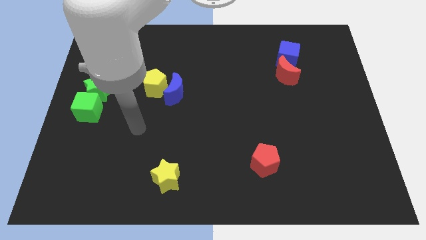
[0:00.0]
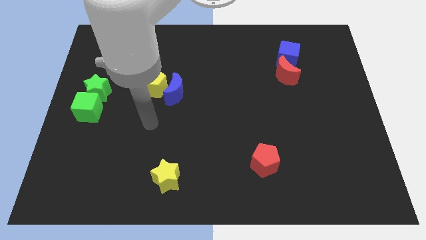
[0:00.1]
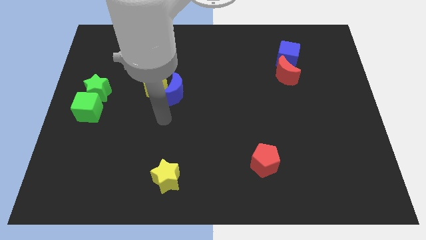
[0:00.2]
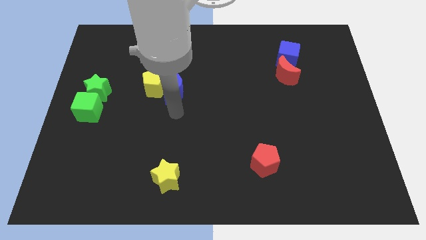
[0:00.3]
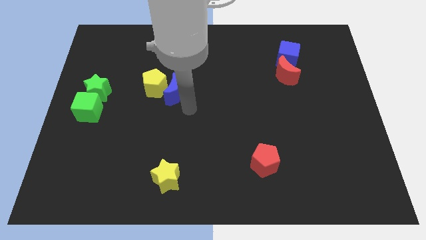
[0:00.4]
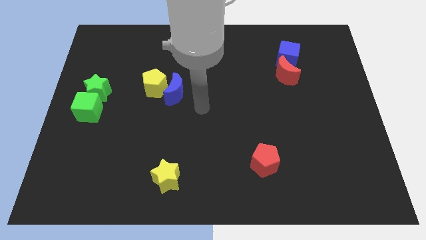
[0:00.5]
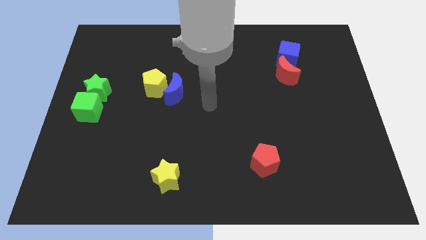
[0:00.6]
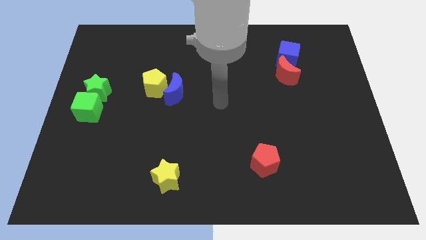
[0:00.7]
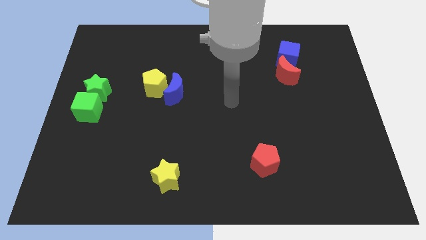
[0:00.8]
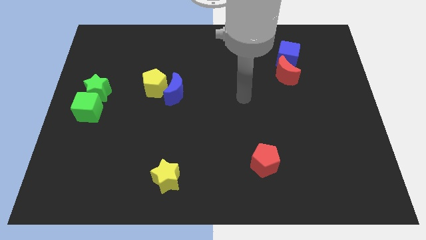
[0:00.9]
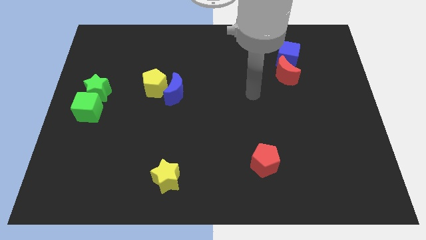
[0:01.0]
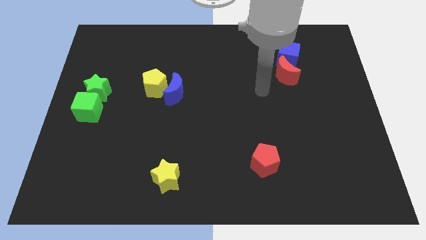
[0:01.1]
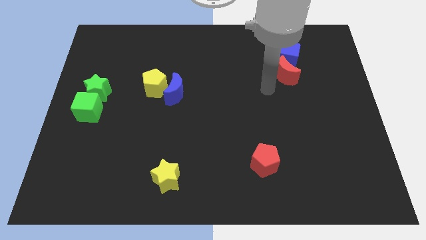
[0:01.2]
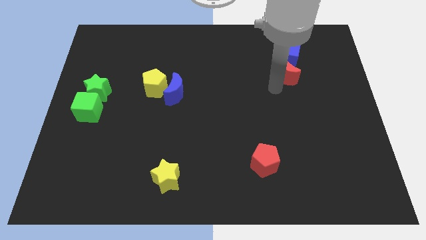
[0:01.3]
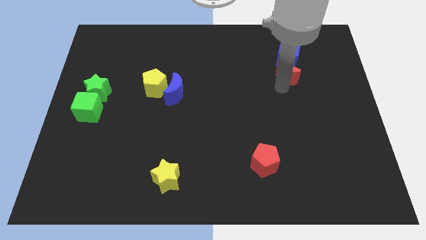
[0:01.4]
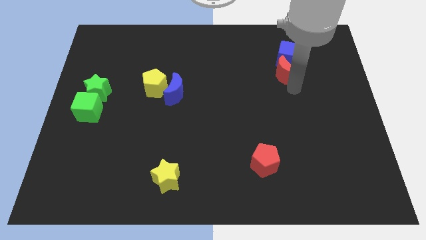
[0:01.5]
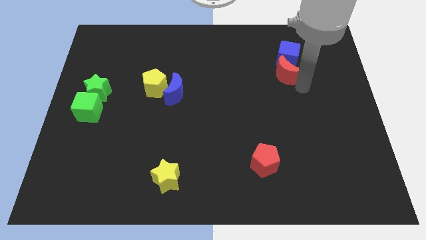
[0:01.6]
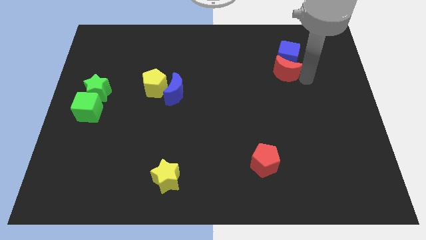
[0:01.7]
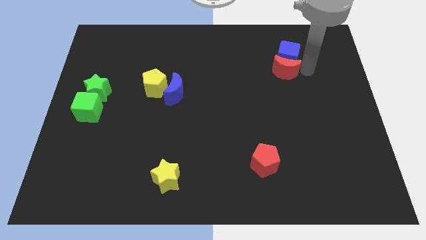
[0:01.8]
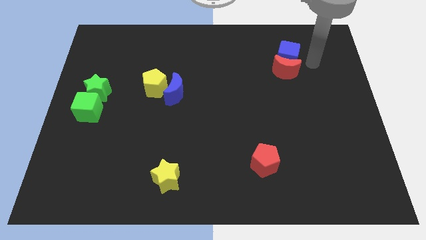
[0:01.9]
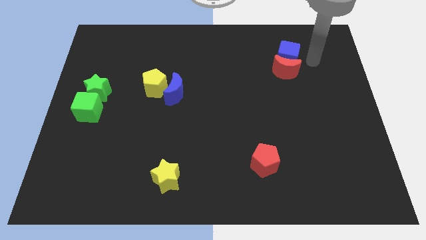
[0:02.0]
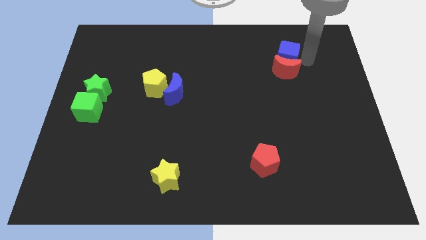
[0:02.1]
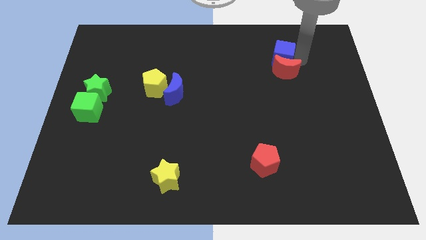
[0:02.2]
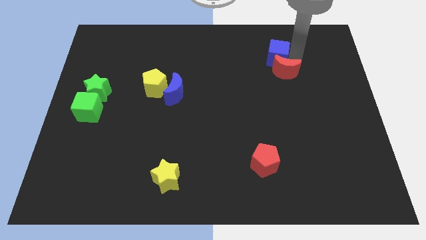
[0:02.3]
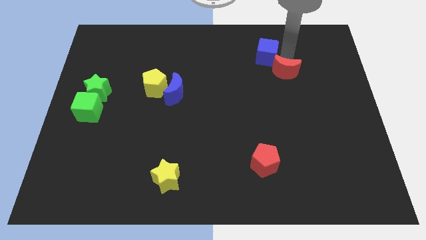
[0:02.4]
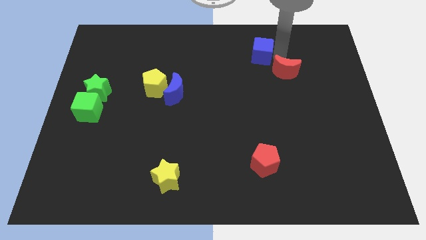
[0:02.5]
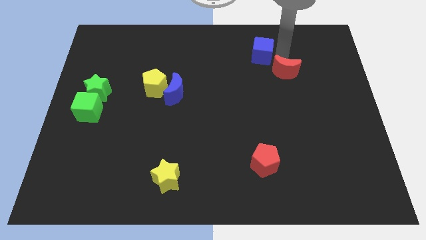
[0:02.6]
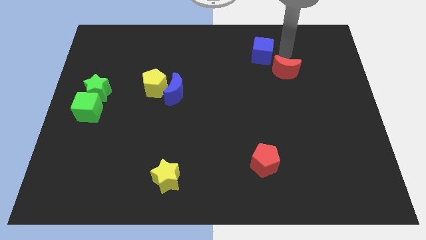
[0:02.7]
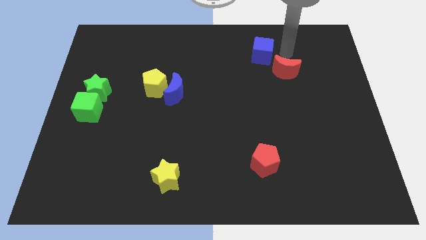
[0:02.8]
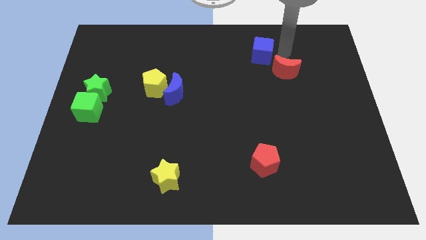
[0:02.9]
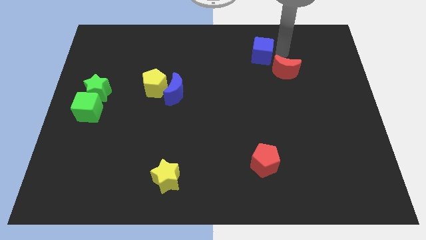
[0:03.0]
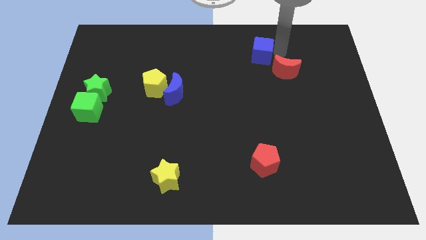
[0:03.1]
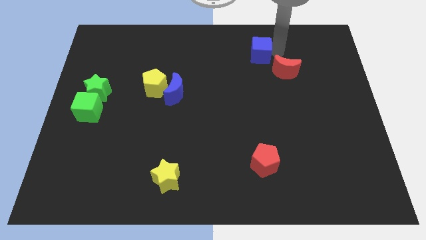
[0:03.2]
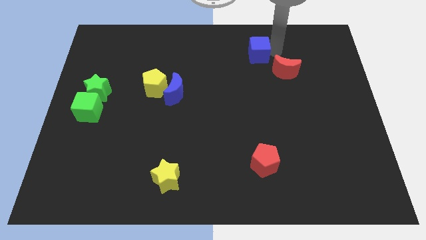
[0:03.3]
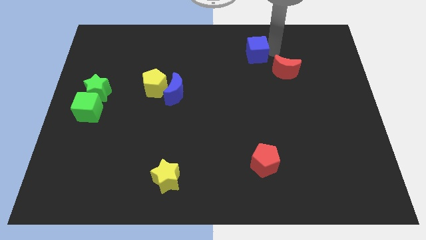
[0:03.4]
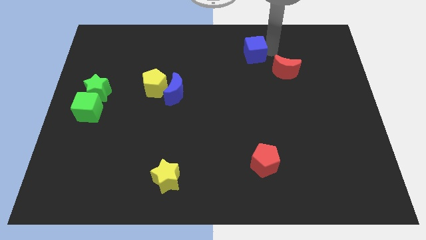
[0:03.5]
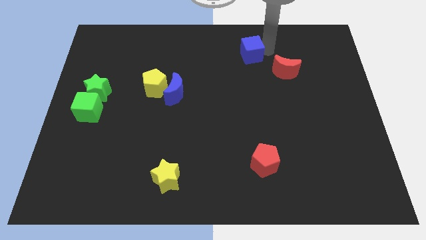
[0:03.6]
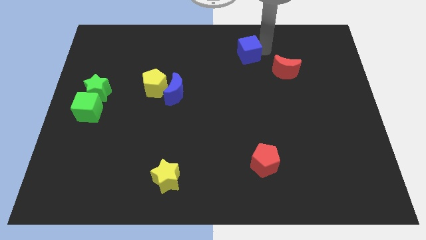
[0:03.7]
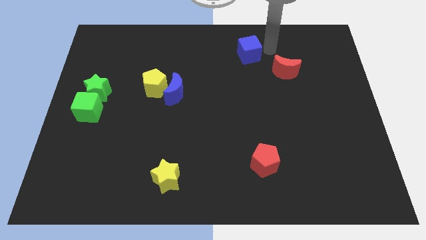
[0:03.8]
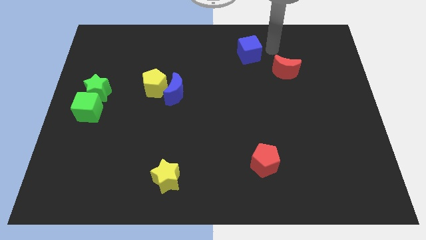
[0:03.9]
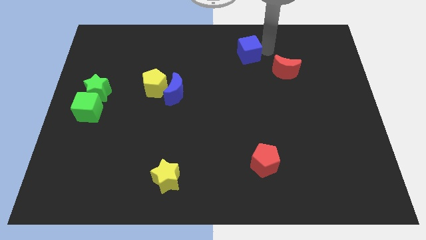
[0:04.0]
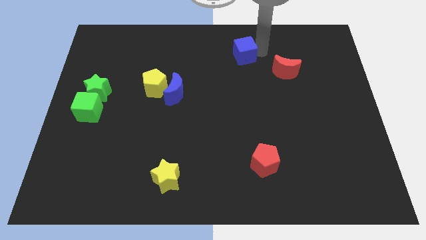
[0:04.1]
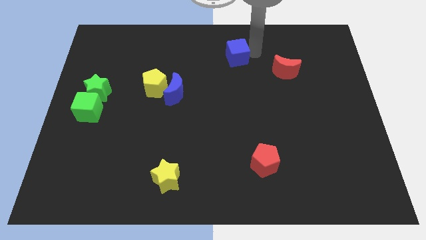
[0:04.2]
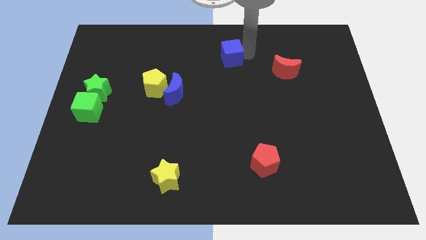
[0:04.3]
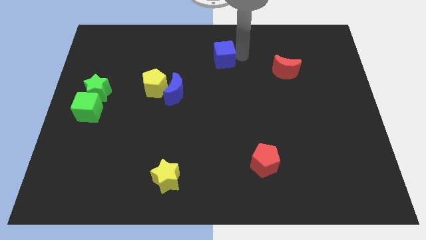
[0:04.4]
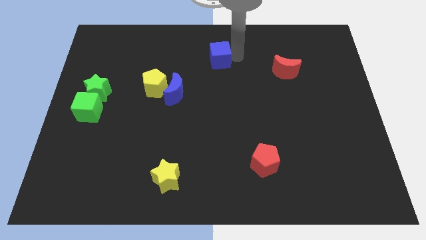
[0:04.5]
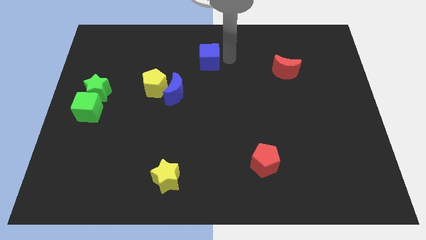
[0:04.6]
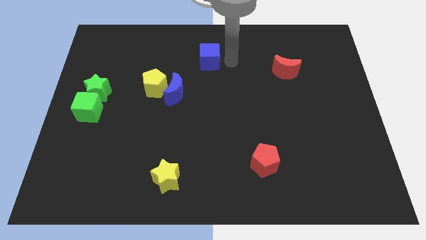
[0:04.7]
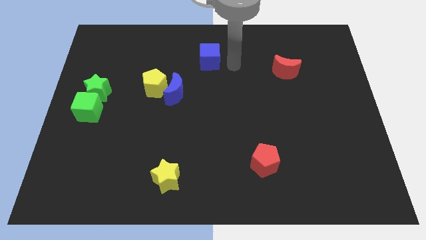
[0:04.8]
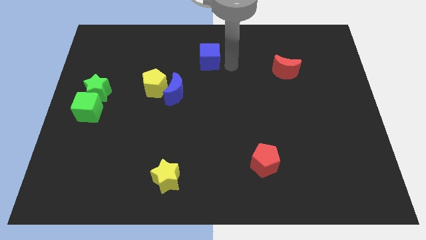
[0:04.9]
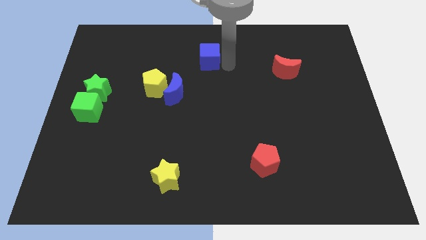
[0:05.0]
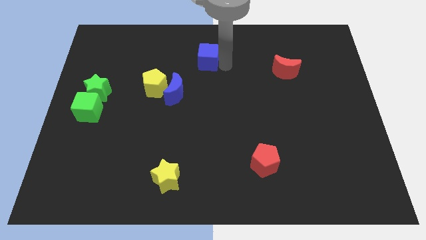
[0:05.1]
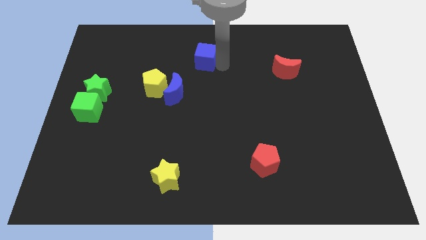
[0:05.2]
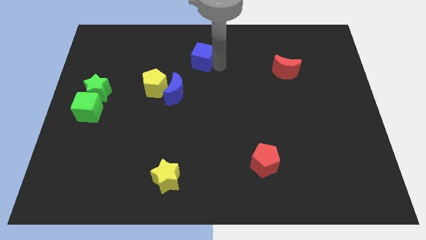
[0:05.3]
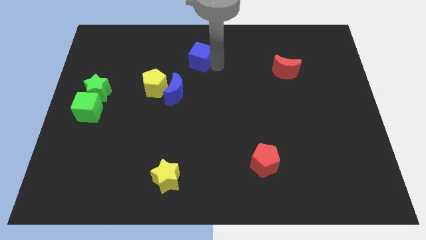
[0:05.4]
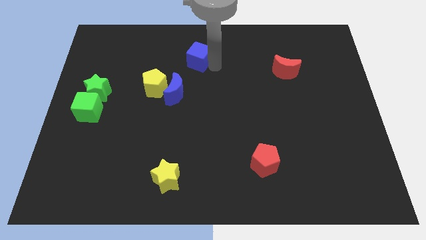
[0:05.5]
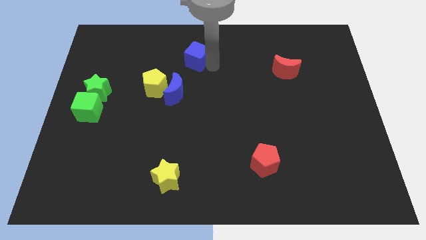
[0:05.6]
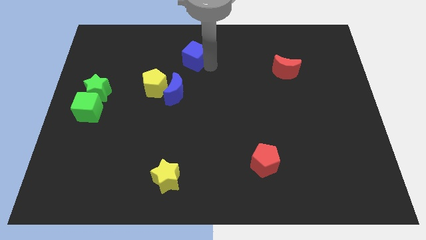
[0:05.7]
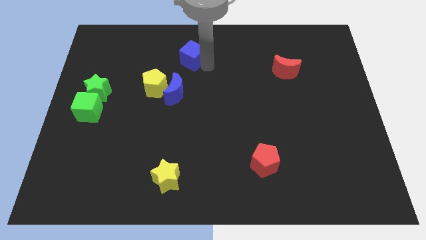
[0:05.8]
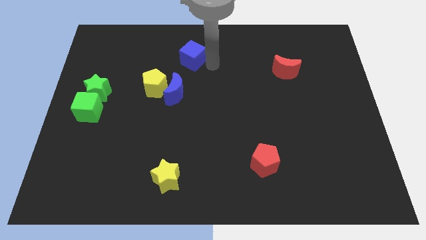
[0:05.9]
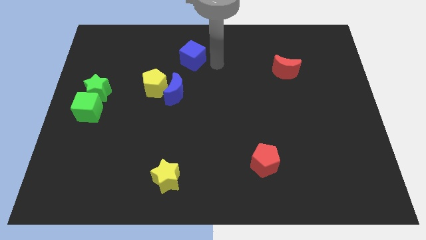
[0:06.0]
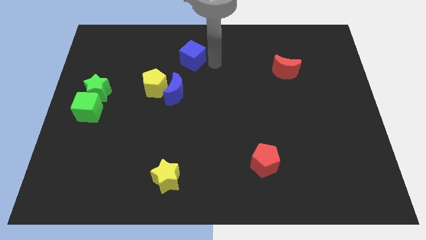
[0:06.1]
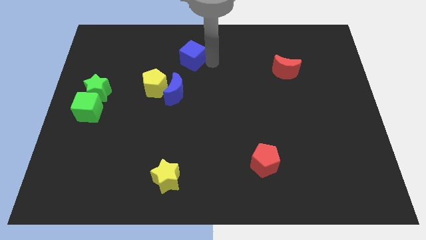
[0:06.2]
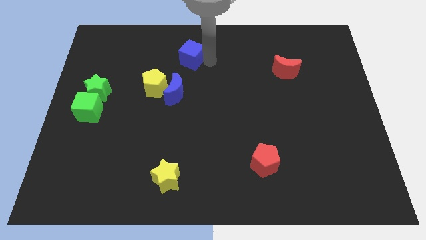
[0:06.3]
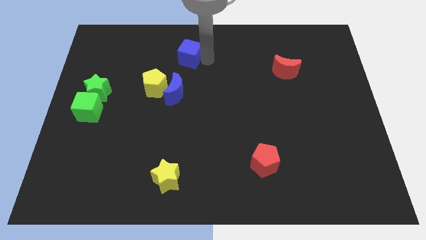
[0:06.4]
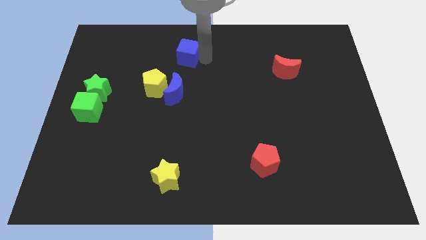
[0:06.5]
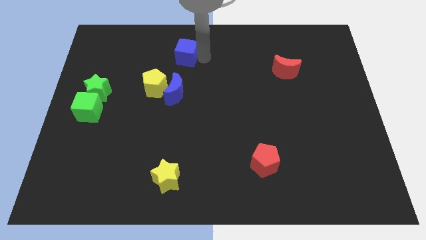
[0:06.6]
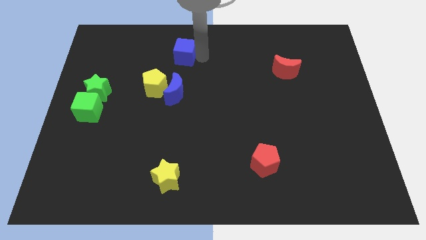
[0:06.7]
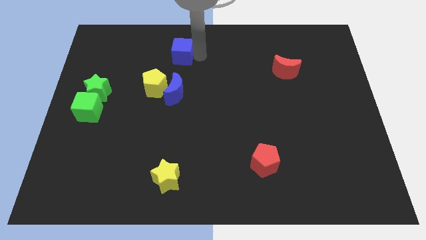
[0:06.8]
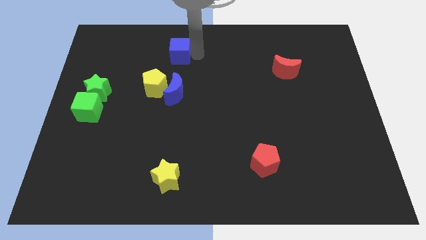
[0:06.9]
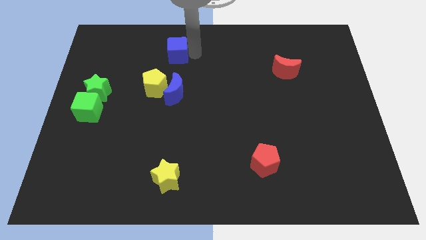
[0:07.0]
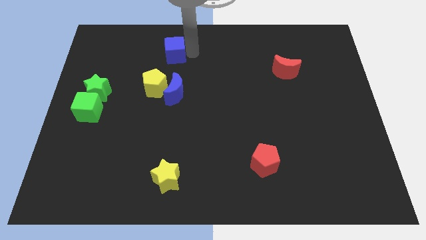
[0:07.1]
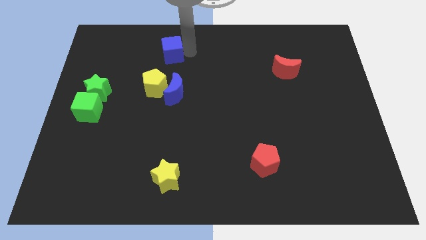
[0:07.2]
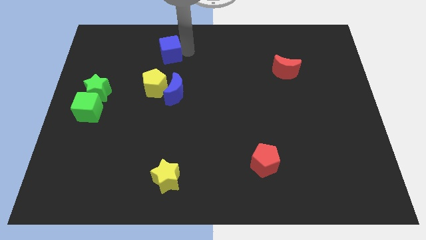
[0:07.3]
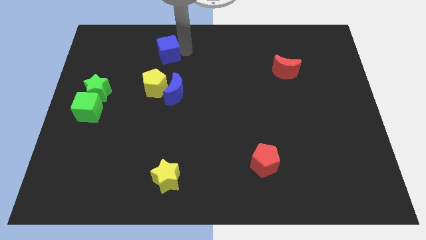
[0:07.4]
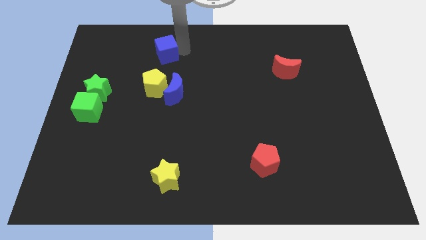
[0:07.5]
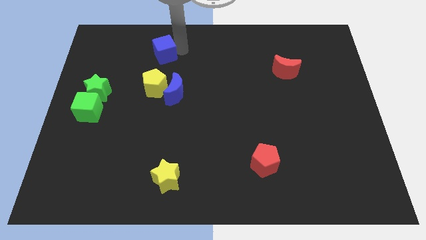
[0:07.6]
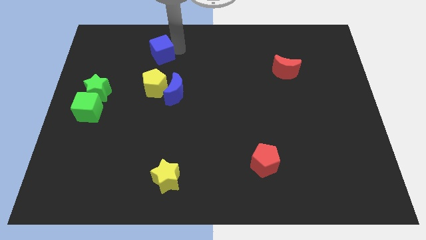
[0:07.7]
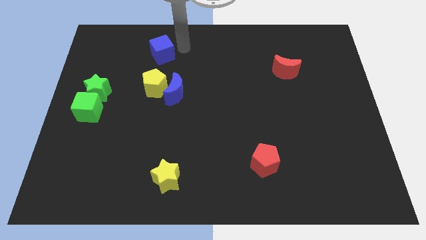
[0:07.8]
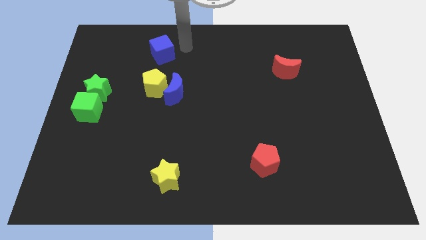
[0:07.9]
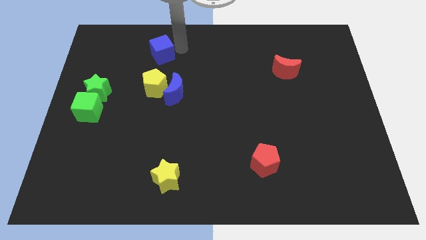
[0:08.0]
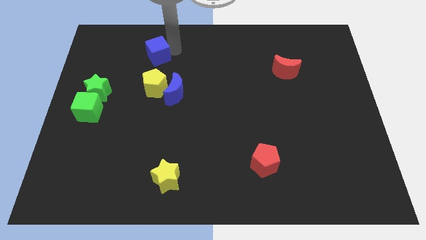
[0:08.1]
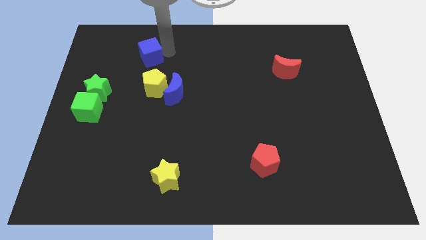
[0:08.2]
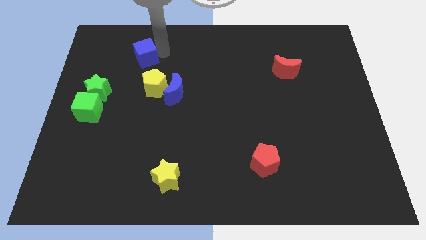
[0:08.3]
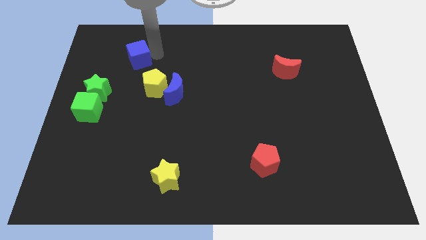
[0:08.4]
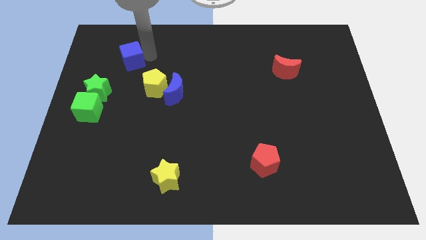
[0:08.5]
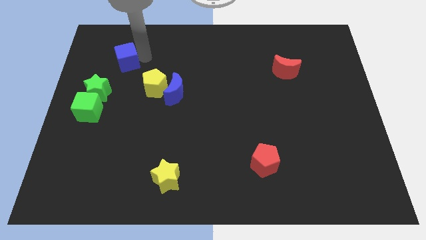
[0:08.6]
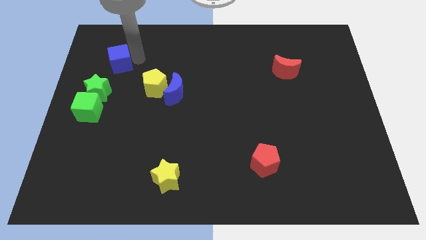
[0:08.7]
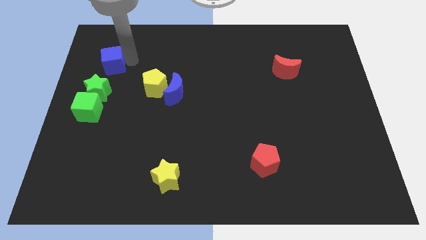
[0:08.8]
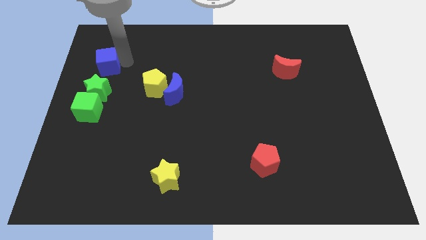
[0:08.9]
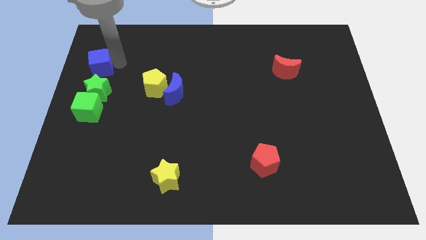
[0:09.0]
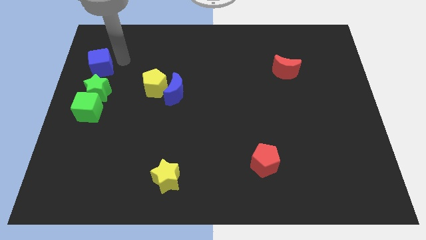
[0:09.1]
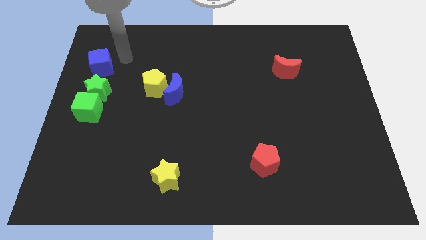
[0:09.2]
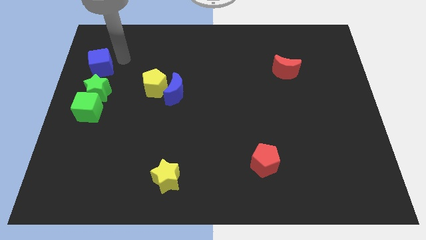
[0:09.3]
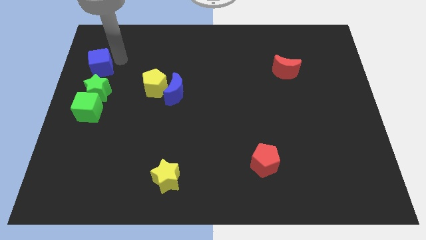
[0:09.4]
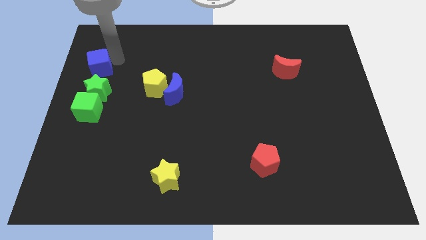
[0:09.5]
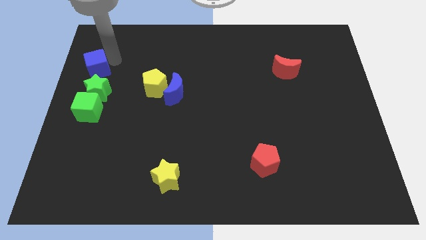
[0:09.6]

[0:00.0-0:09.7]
move the blue cube to the left side
